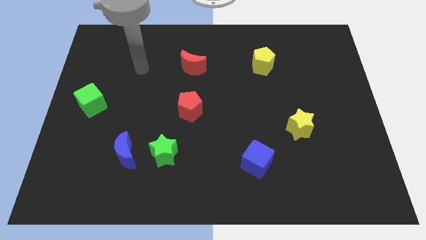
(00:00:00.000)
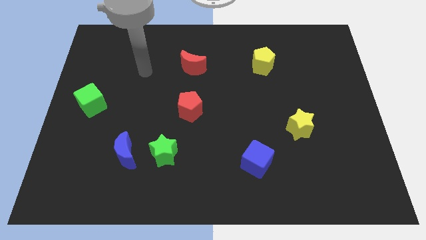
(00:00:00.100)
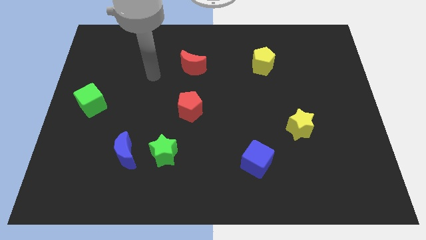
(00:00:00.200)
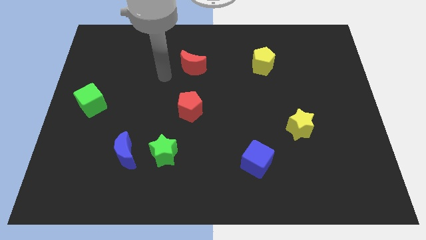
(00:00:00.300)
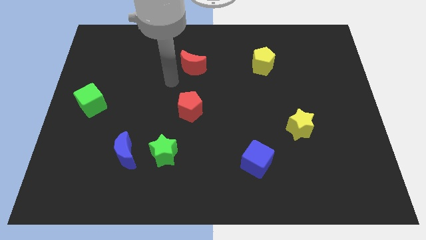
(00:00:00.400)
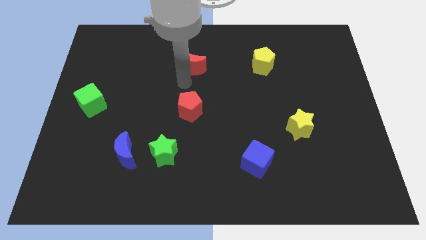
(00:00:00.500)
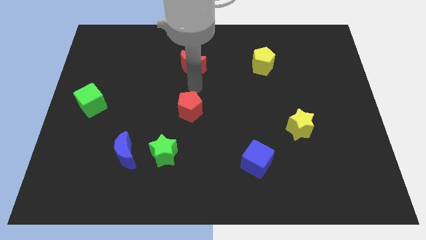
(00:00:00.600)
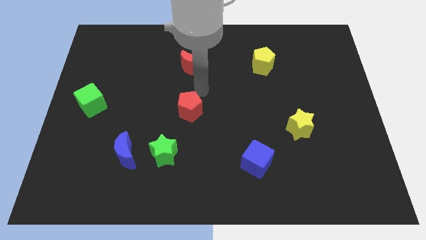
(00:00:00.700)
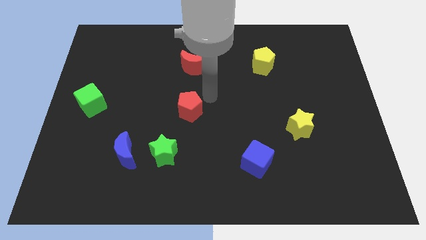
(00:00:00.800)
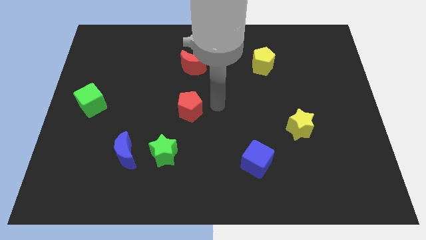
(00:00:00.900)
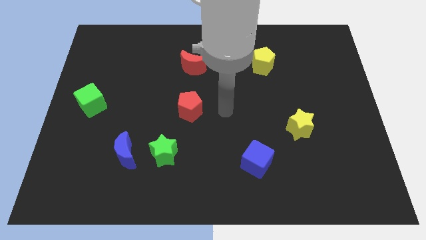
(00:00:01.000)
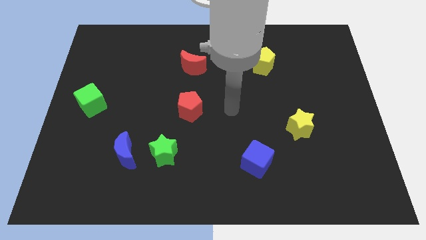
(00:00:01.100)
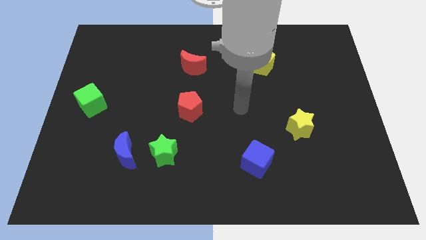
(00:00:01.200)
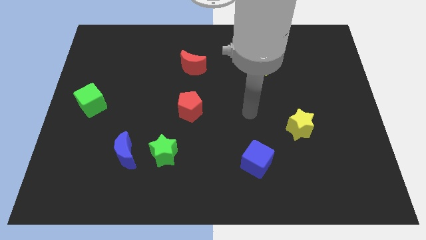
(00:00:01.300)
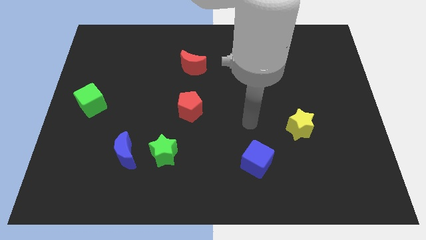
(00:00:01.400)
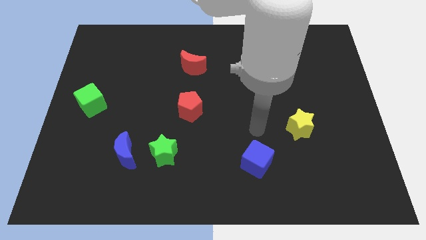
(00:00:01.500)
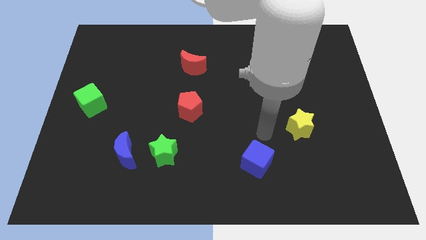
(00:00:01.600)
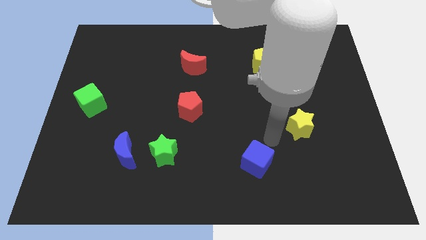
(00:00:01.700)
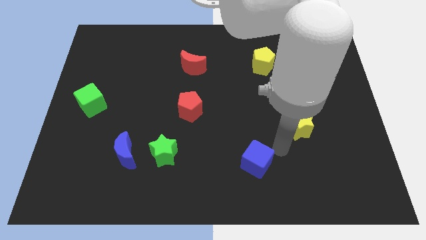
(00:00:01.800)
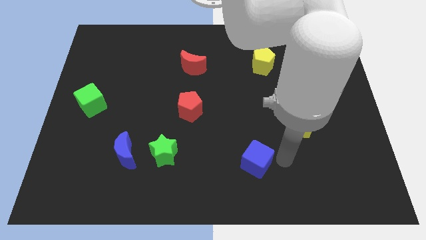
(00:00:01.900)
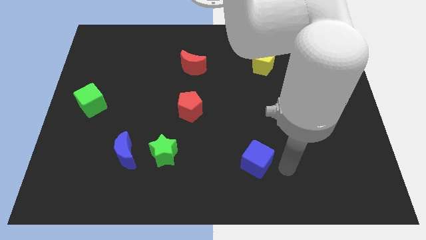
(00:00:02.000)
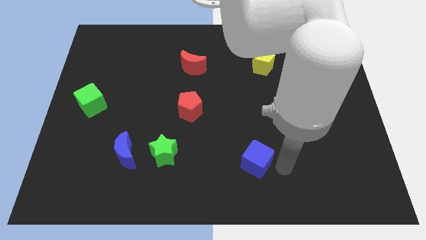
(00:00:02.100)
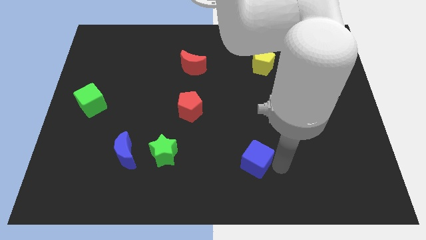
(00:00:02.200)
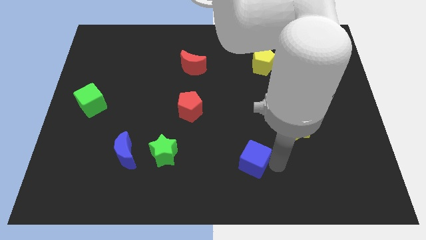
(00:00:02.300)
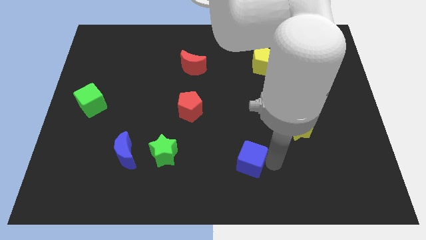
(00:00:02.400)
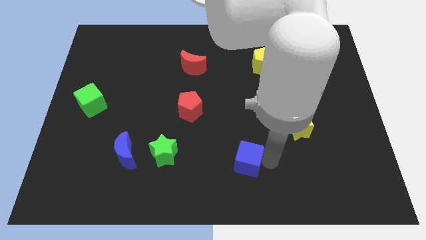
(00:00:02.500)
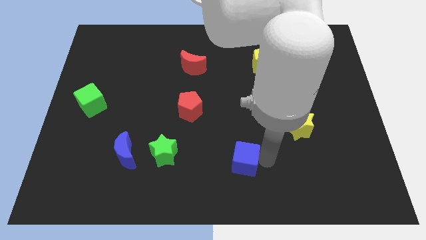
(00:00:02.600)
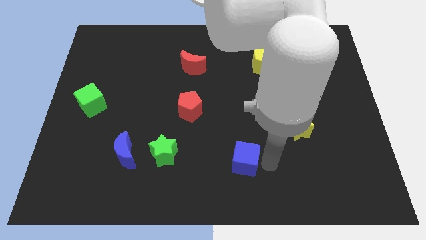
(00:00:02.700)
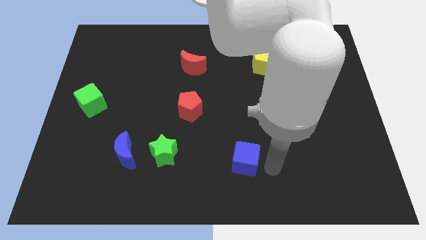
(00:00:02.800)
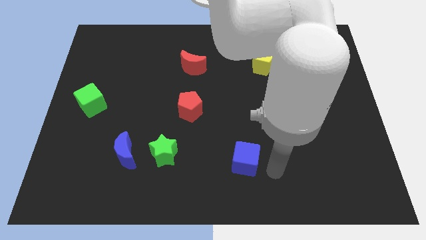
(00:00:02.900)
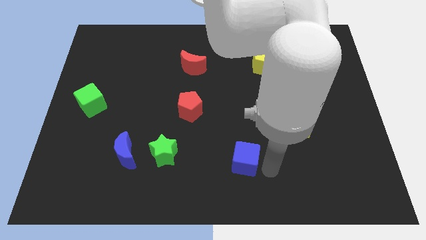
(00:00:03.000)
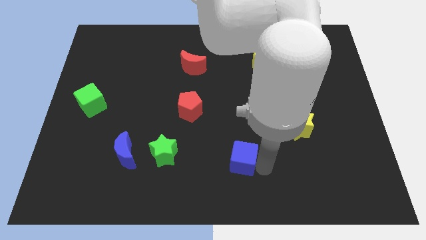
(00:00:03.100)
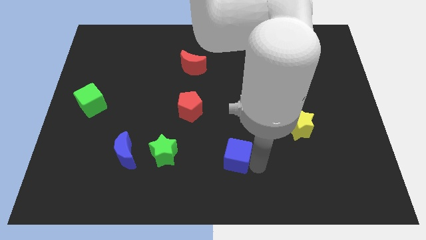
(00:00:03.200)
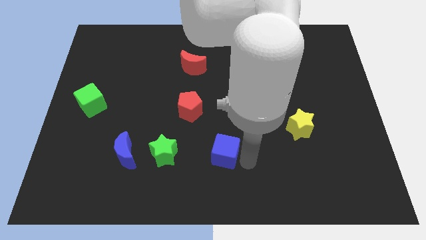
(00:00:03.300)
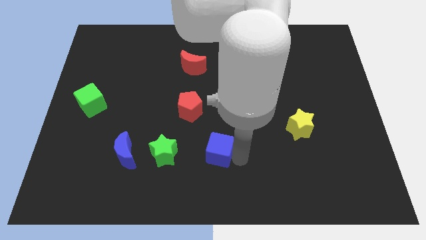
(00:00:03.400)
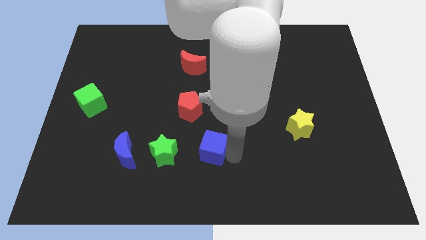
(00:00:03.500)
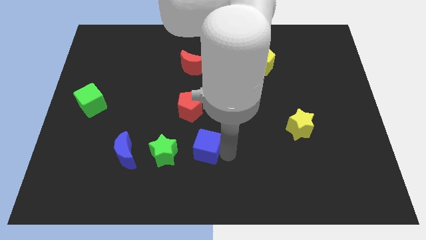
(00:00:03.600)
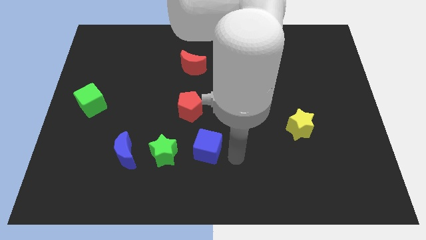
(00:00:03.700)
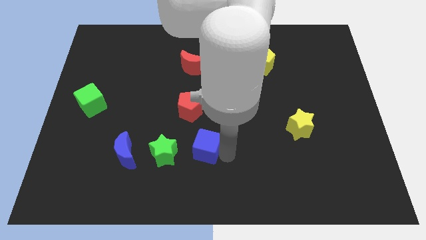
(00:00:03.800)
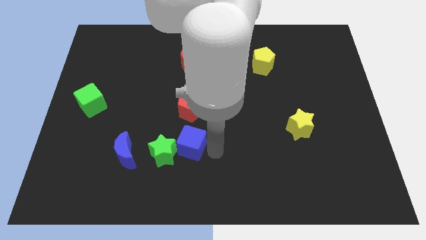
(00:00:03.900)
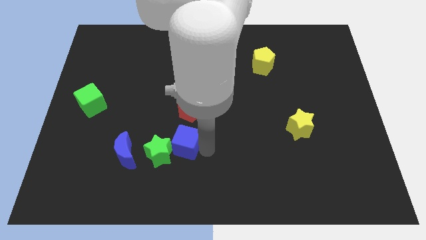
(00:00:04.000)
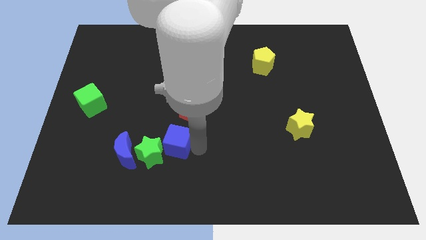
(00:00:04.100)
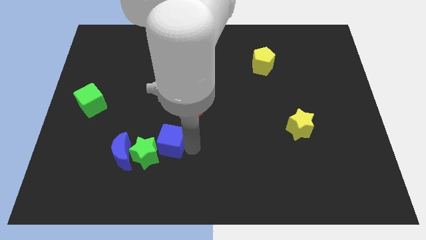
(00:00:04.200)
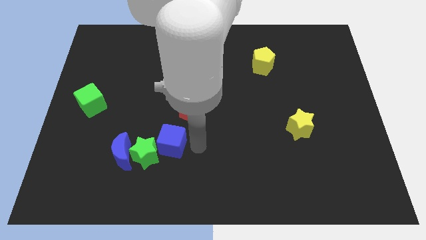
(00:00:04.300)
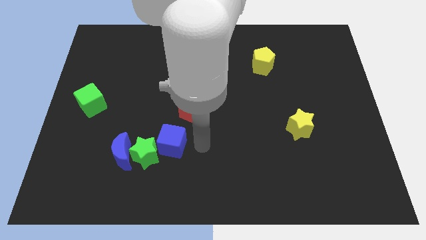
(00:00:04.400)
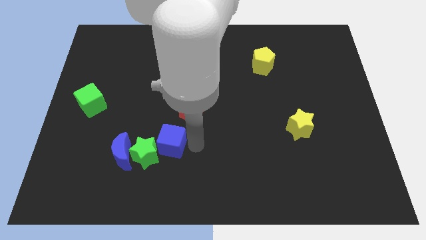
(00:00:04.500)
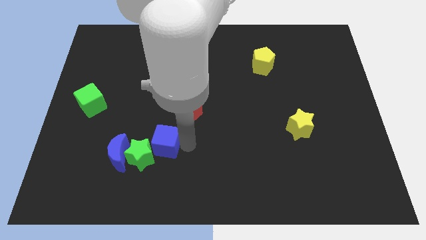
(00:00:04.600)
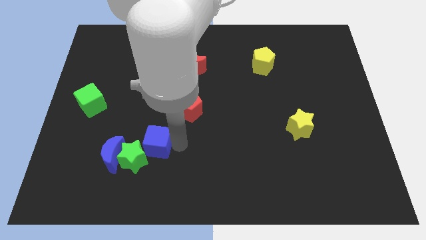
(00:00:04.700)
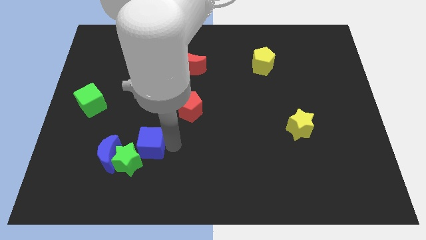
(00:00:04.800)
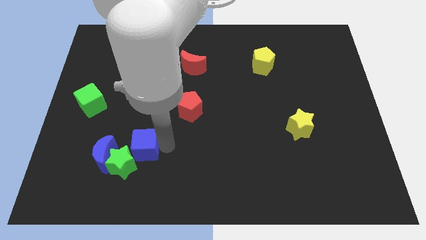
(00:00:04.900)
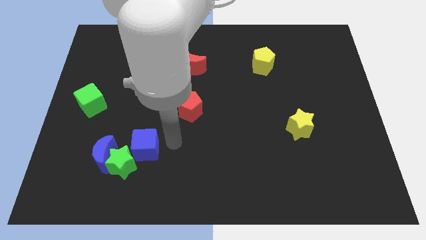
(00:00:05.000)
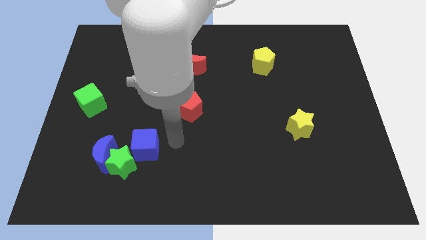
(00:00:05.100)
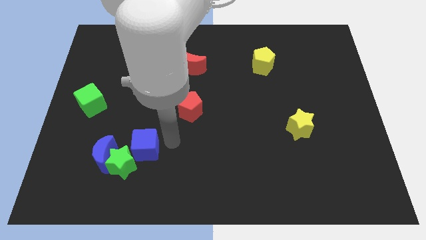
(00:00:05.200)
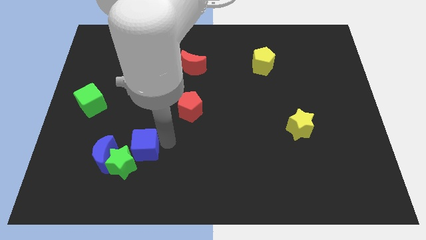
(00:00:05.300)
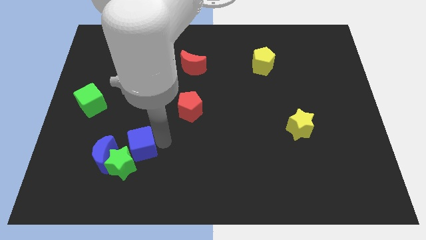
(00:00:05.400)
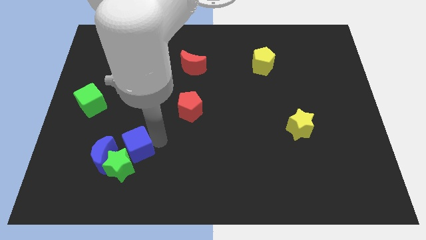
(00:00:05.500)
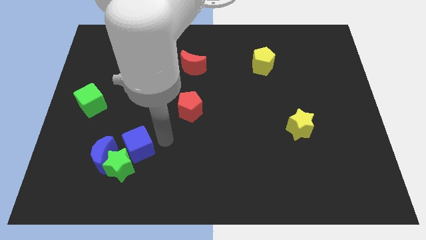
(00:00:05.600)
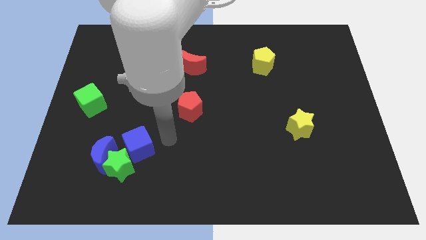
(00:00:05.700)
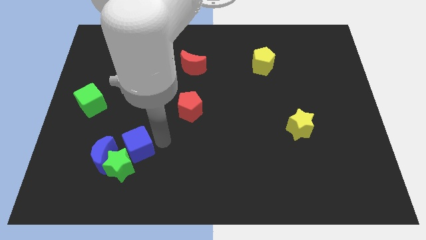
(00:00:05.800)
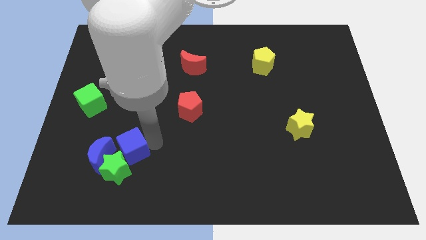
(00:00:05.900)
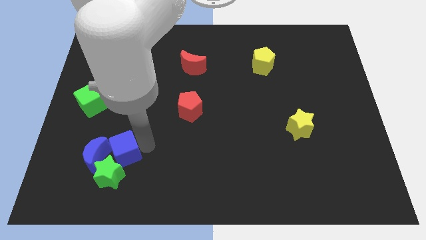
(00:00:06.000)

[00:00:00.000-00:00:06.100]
put the blue cube next to the blue moon

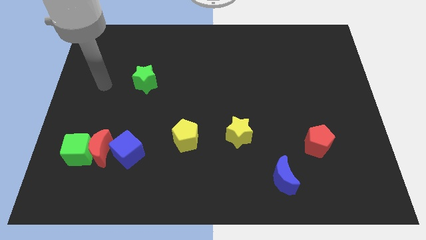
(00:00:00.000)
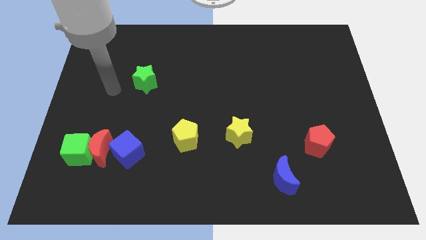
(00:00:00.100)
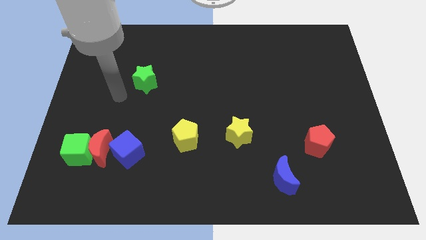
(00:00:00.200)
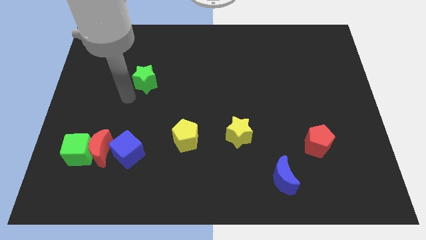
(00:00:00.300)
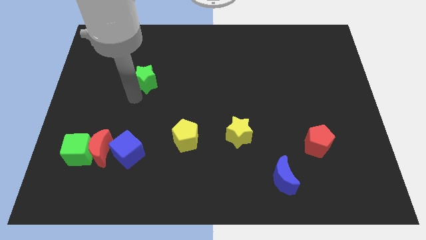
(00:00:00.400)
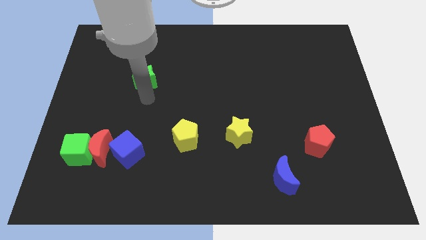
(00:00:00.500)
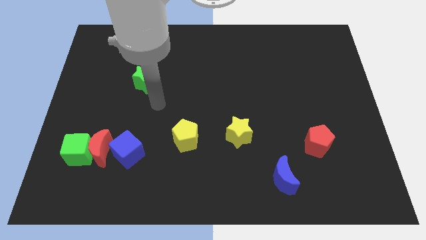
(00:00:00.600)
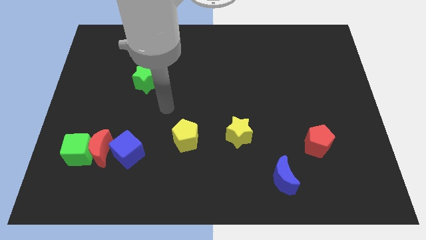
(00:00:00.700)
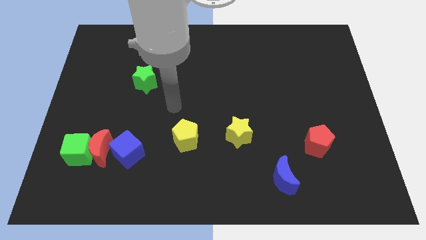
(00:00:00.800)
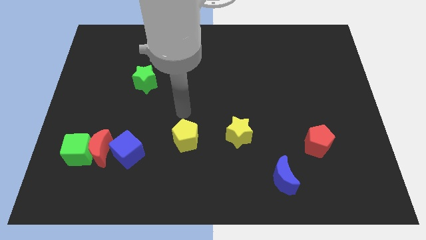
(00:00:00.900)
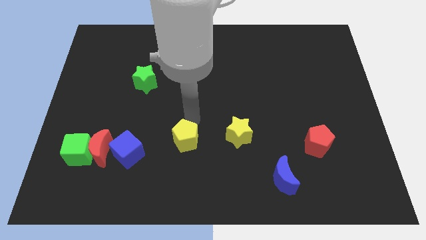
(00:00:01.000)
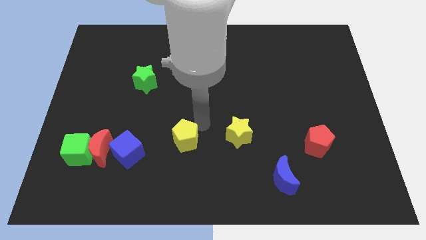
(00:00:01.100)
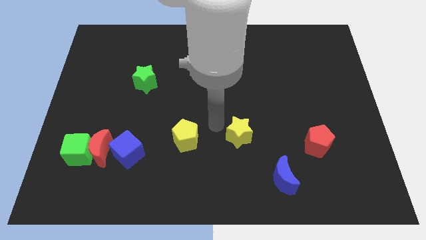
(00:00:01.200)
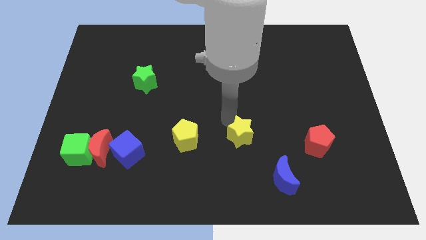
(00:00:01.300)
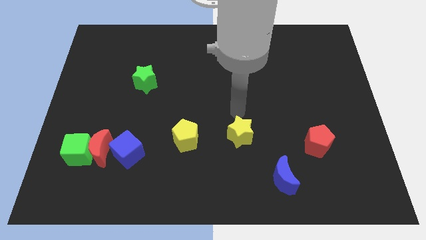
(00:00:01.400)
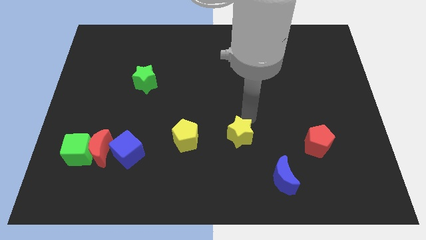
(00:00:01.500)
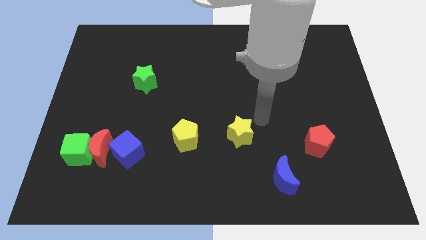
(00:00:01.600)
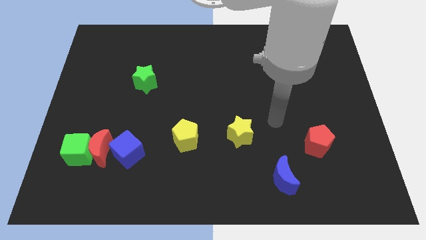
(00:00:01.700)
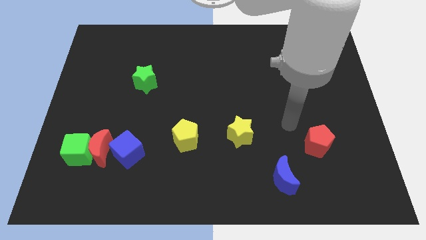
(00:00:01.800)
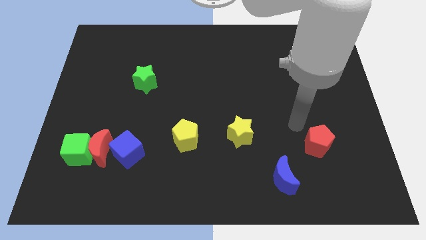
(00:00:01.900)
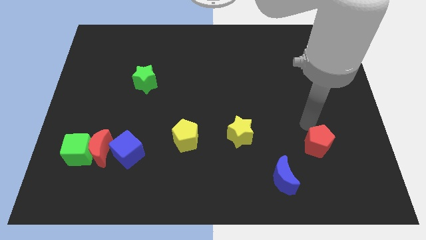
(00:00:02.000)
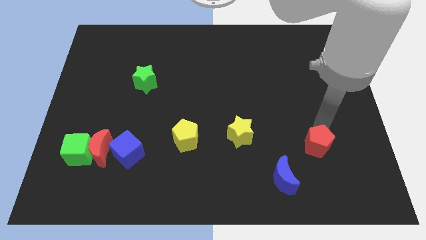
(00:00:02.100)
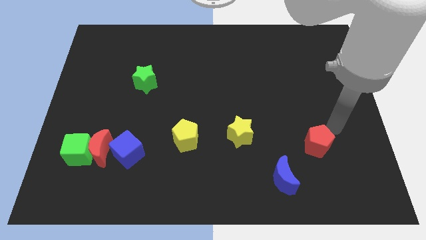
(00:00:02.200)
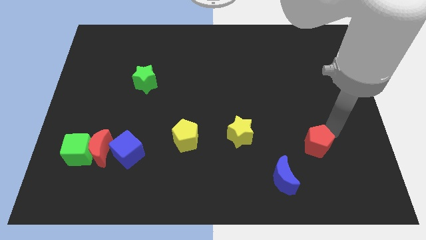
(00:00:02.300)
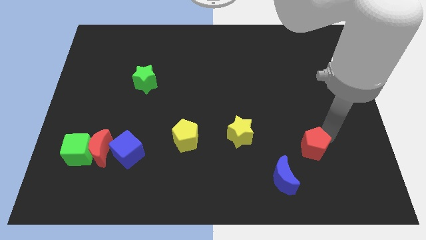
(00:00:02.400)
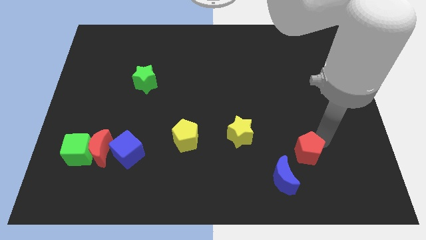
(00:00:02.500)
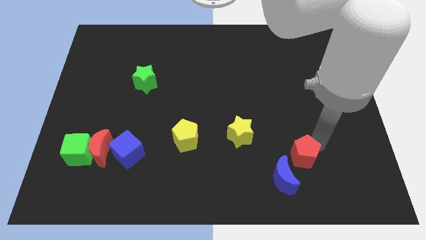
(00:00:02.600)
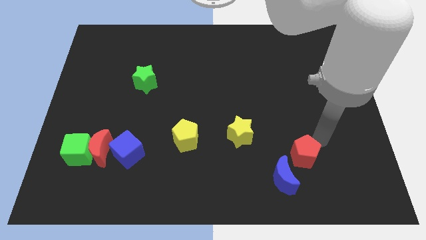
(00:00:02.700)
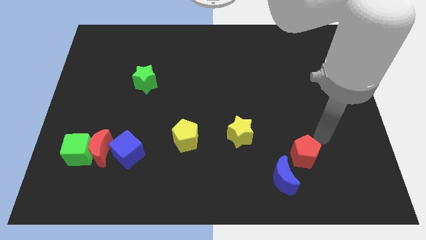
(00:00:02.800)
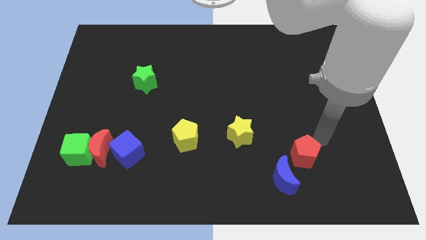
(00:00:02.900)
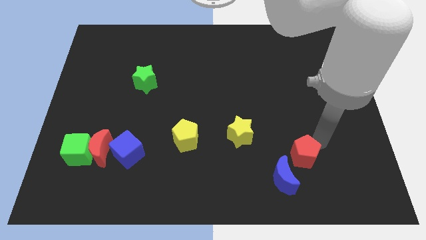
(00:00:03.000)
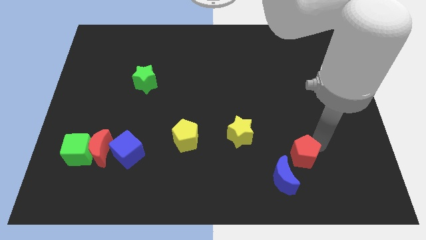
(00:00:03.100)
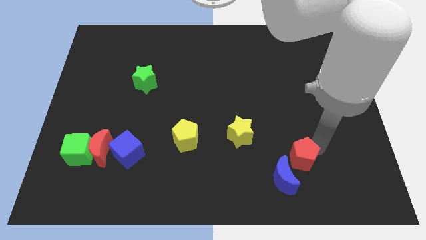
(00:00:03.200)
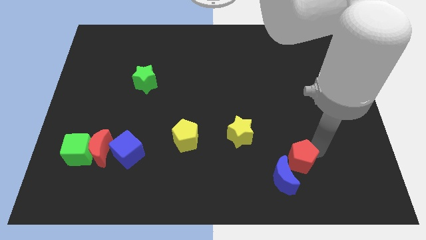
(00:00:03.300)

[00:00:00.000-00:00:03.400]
put the red pentagon next to the blue moon
